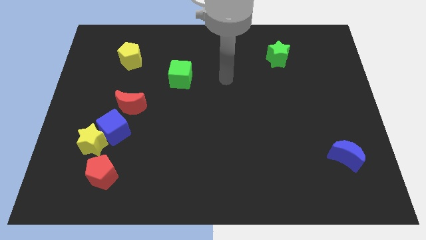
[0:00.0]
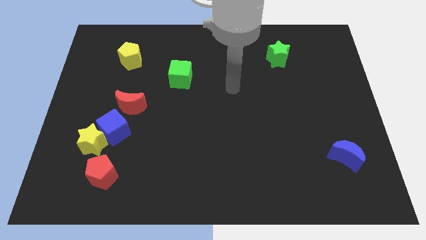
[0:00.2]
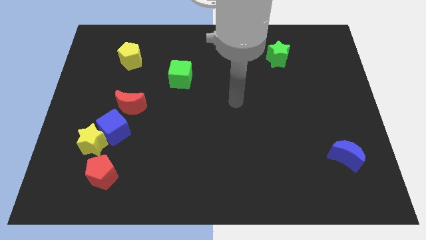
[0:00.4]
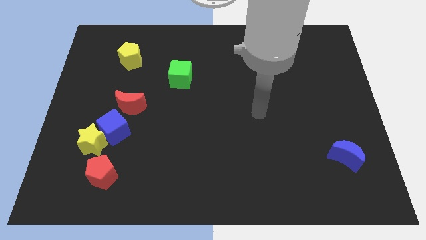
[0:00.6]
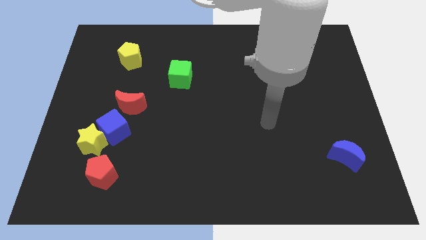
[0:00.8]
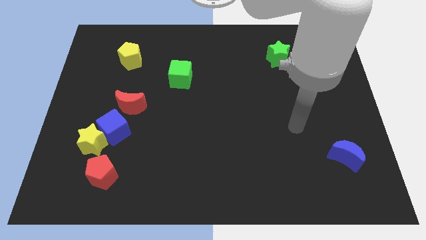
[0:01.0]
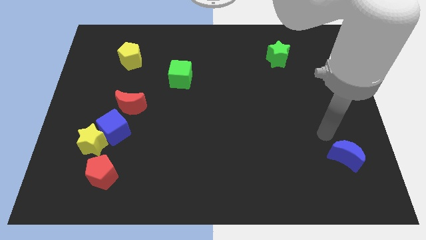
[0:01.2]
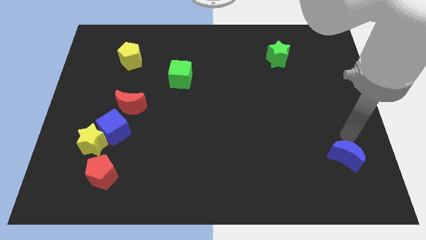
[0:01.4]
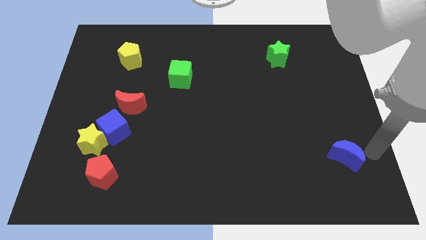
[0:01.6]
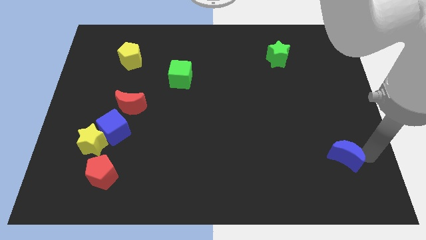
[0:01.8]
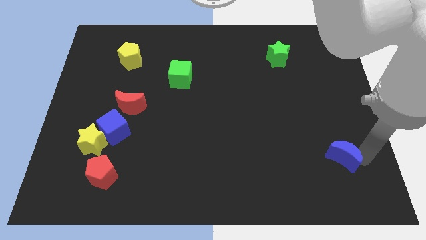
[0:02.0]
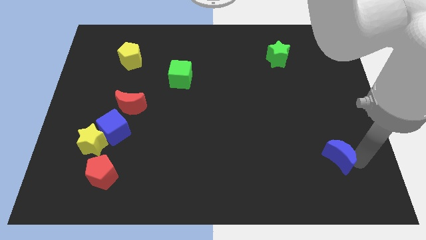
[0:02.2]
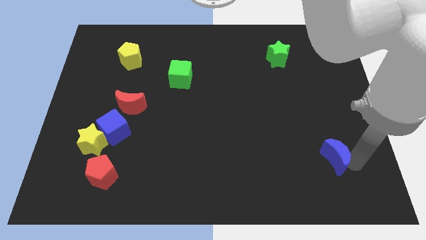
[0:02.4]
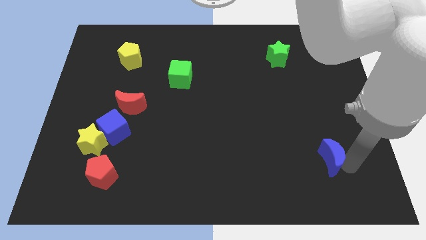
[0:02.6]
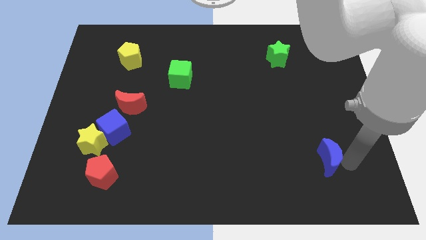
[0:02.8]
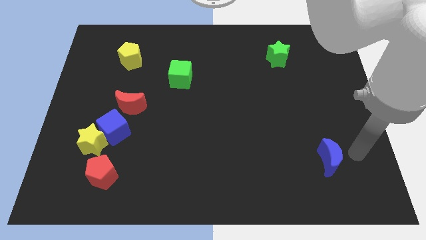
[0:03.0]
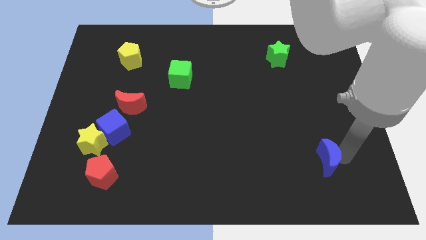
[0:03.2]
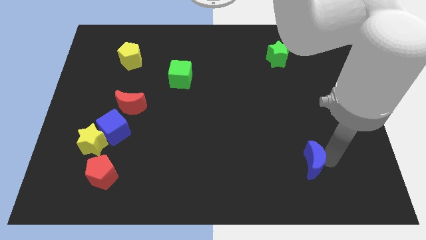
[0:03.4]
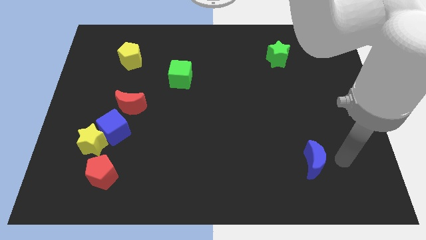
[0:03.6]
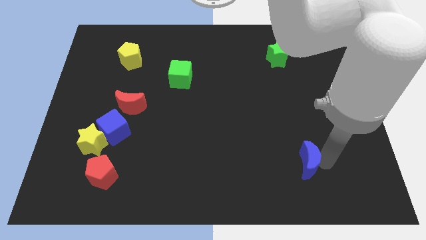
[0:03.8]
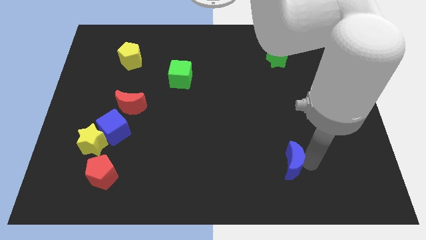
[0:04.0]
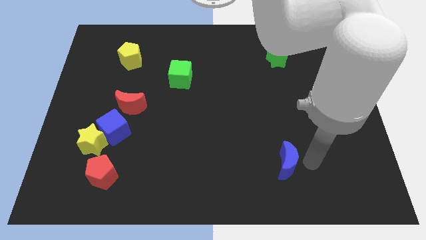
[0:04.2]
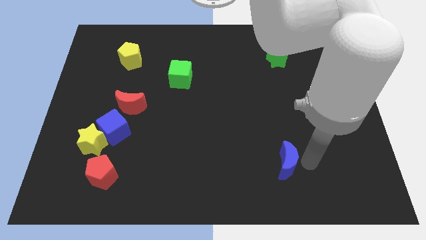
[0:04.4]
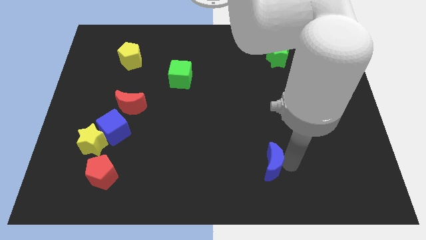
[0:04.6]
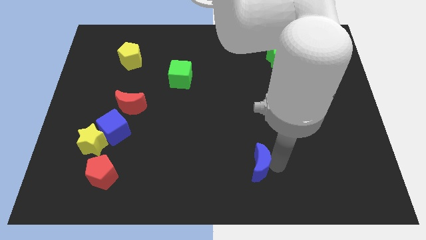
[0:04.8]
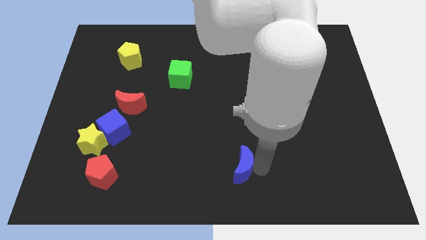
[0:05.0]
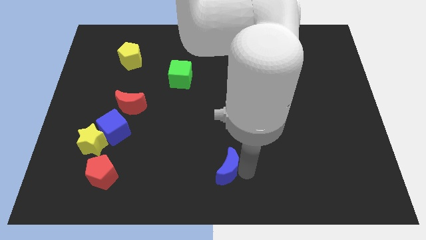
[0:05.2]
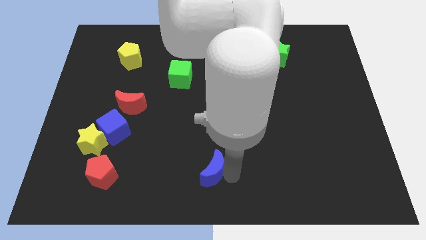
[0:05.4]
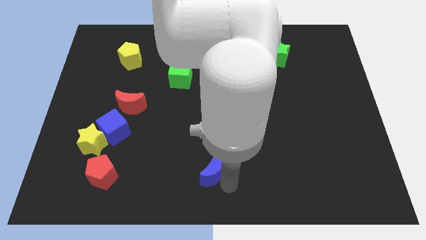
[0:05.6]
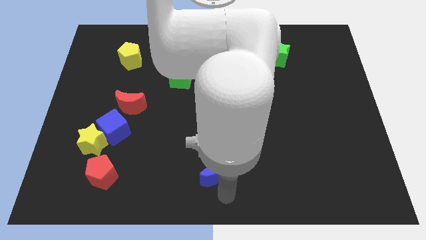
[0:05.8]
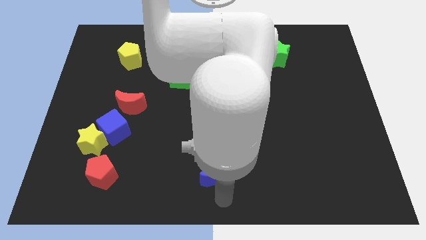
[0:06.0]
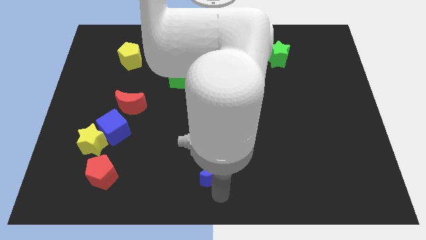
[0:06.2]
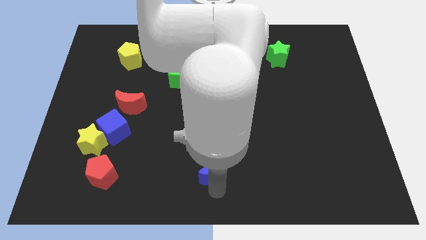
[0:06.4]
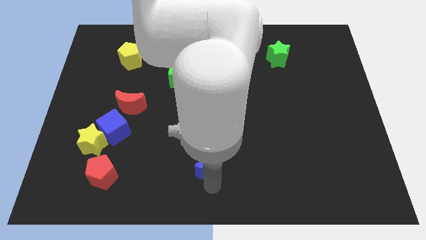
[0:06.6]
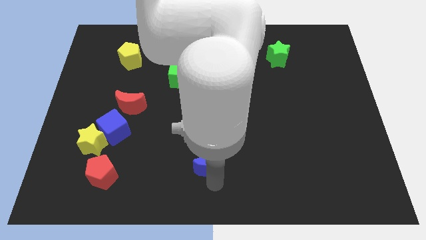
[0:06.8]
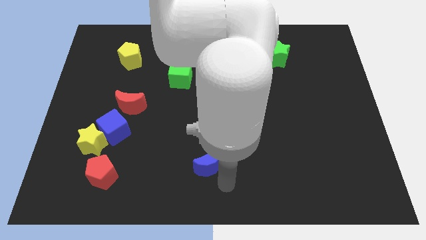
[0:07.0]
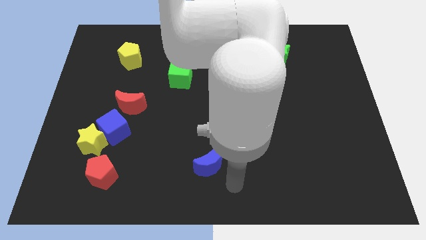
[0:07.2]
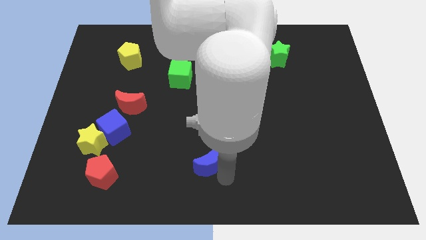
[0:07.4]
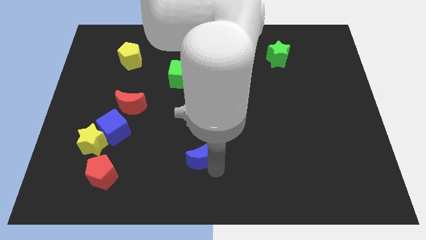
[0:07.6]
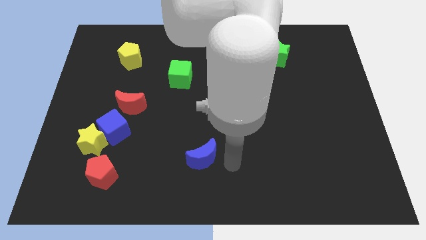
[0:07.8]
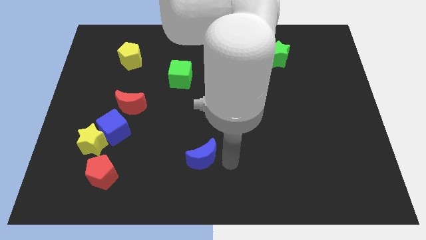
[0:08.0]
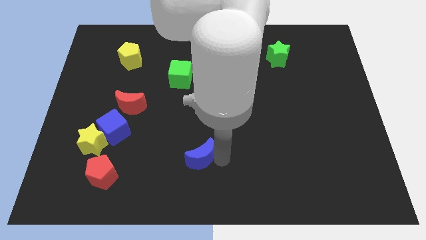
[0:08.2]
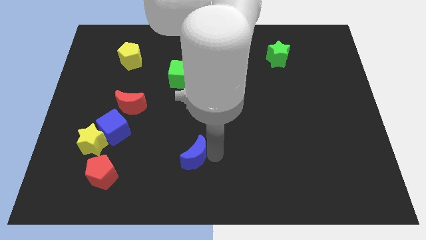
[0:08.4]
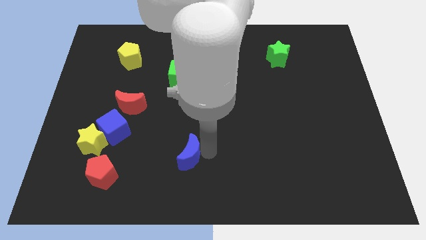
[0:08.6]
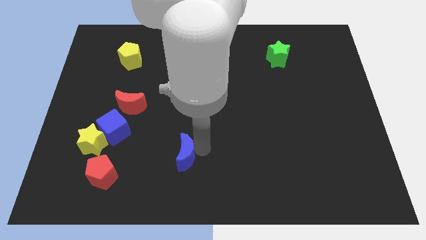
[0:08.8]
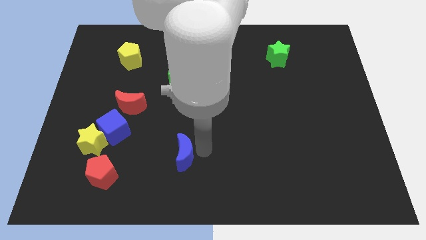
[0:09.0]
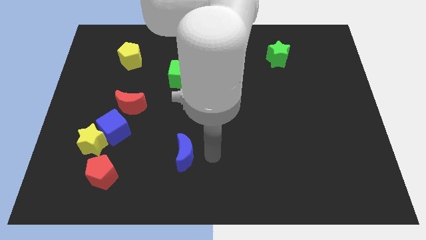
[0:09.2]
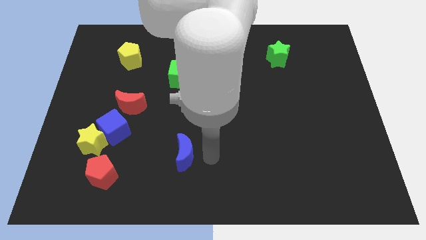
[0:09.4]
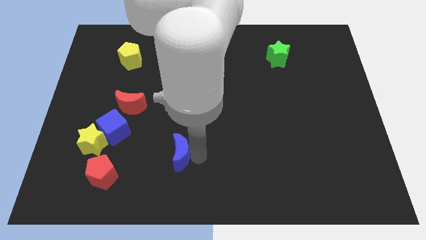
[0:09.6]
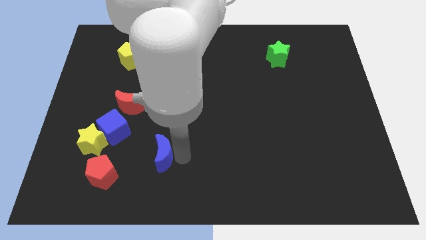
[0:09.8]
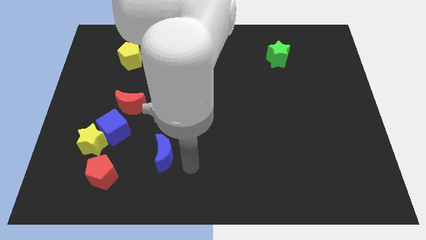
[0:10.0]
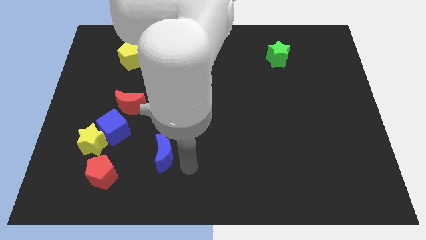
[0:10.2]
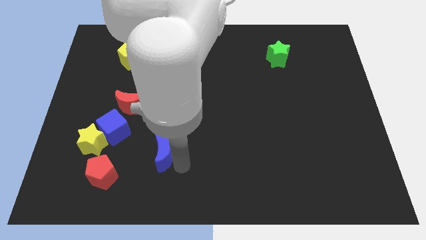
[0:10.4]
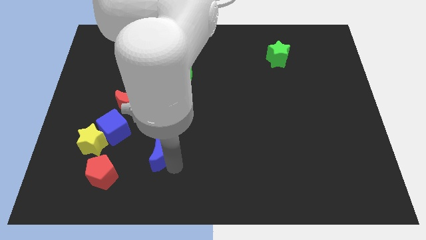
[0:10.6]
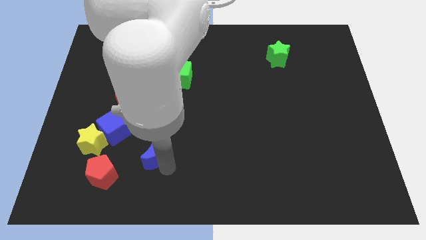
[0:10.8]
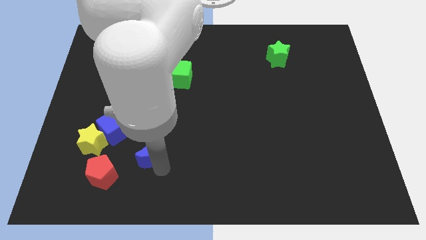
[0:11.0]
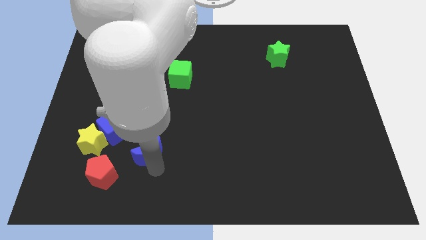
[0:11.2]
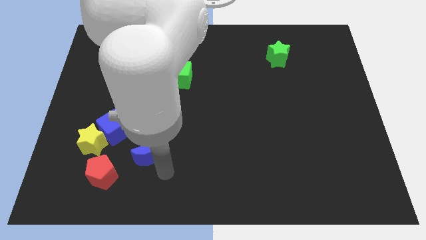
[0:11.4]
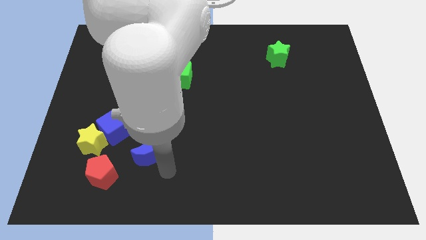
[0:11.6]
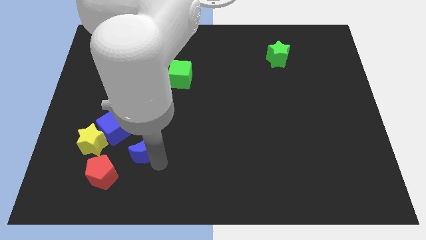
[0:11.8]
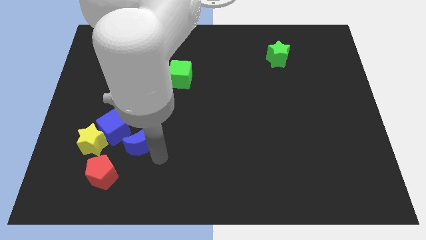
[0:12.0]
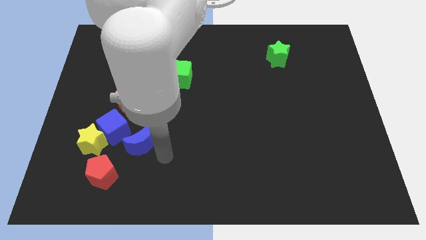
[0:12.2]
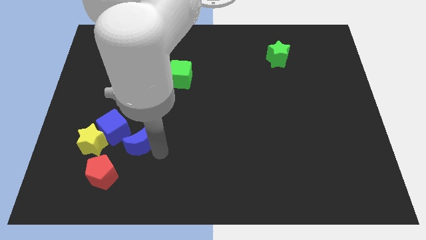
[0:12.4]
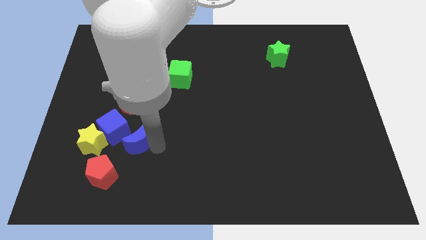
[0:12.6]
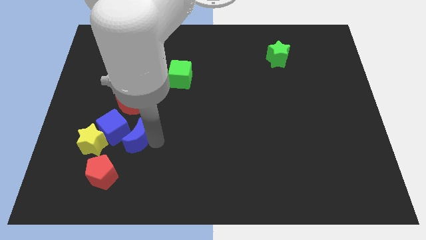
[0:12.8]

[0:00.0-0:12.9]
move the blue moon to the blue cube

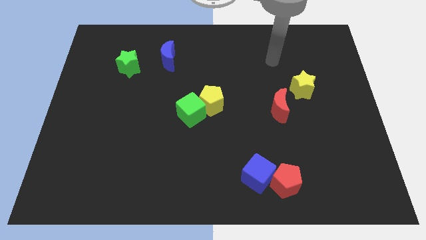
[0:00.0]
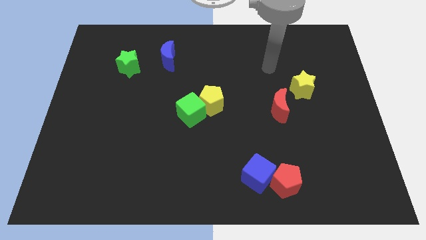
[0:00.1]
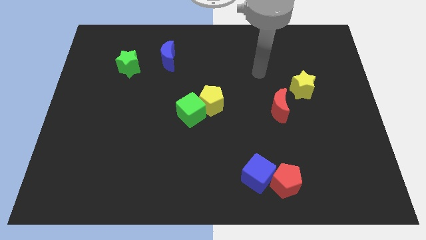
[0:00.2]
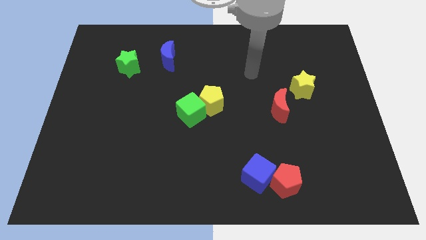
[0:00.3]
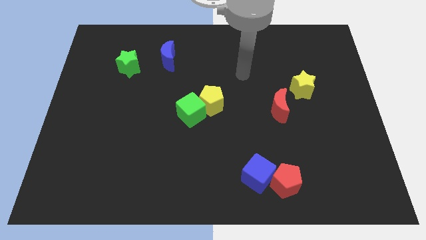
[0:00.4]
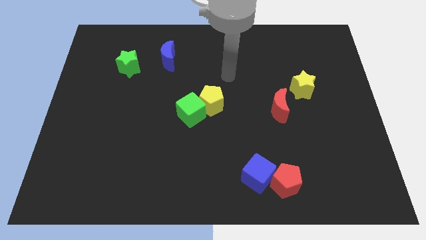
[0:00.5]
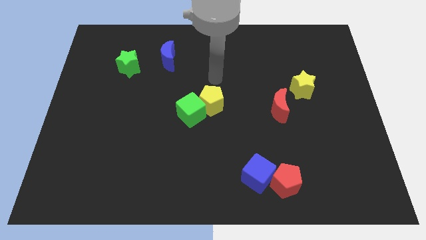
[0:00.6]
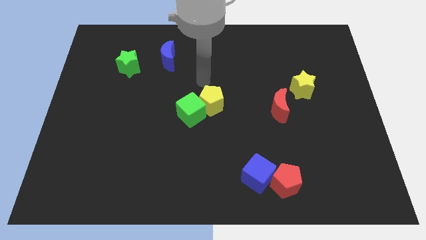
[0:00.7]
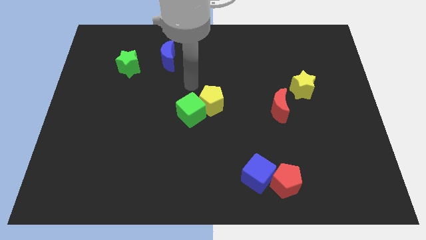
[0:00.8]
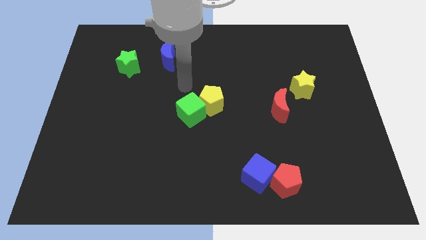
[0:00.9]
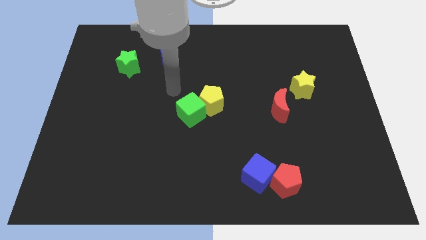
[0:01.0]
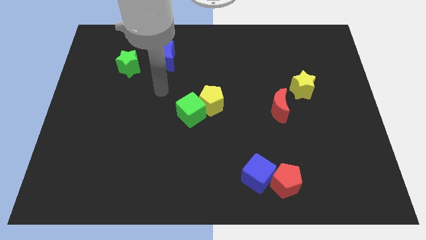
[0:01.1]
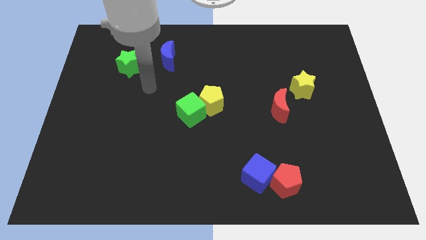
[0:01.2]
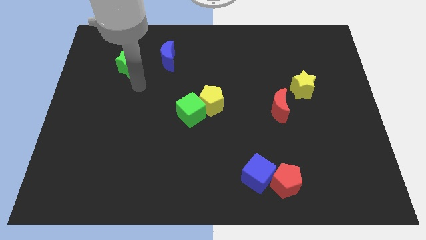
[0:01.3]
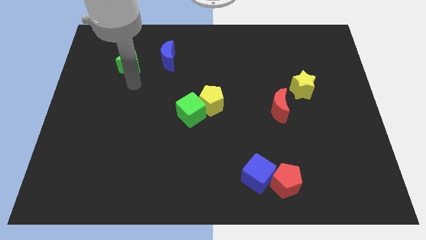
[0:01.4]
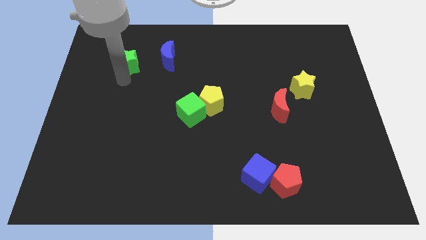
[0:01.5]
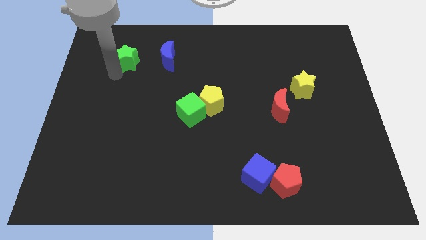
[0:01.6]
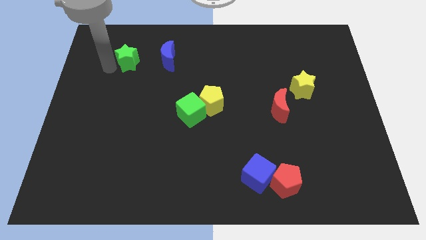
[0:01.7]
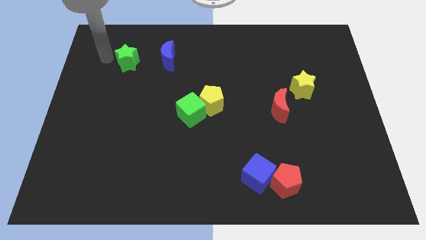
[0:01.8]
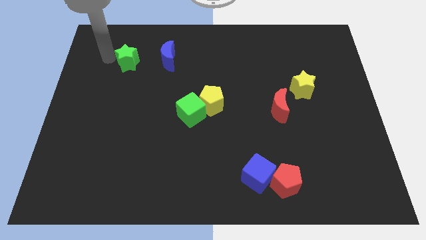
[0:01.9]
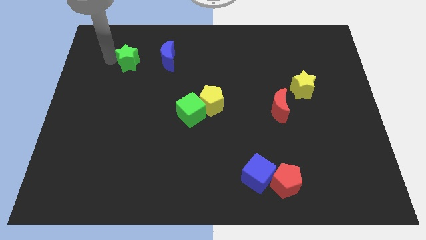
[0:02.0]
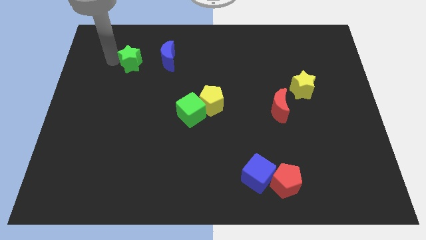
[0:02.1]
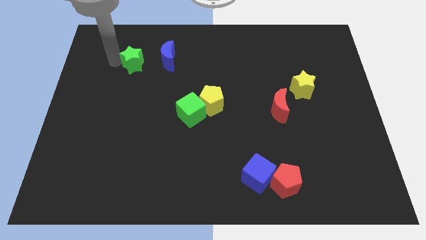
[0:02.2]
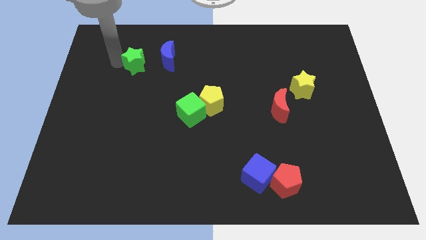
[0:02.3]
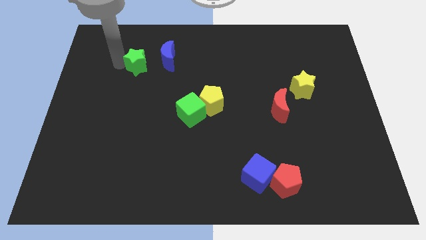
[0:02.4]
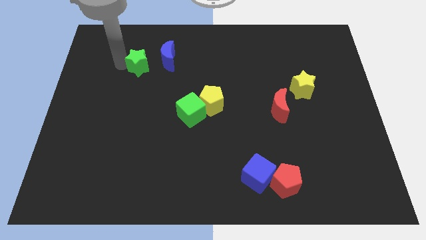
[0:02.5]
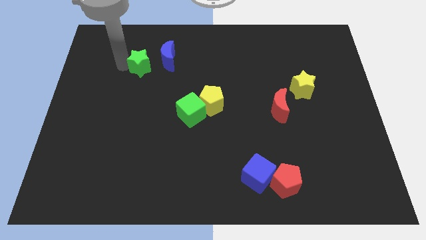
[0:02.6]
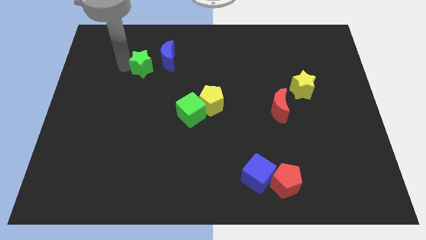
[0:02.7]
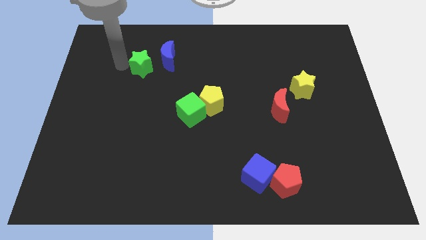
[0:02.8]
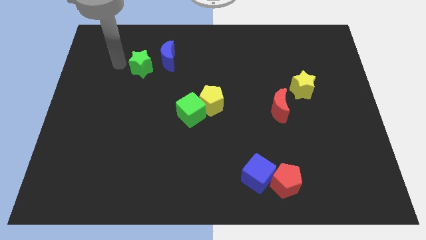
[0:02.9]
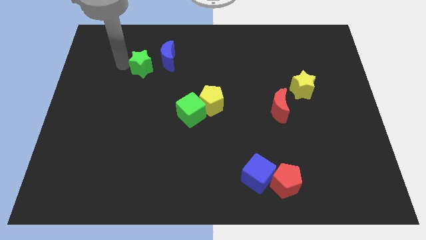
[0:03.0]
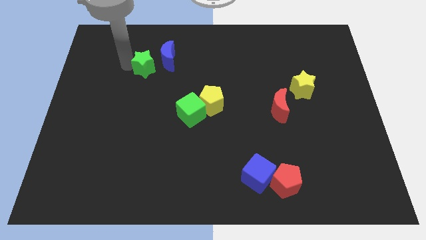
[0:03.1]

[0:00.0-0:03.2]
move the green star to the blue moon
